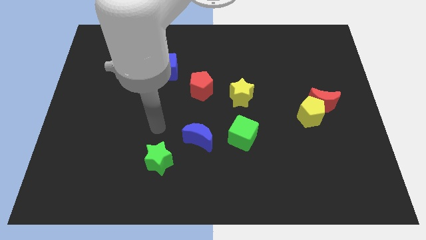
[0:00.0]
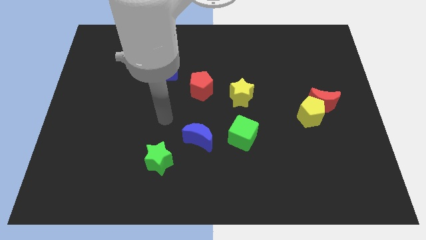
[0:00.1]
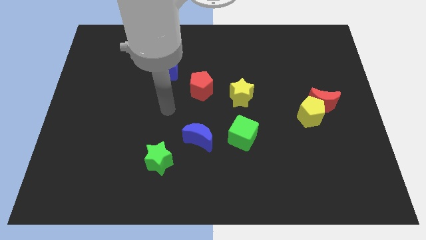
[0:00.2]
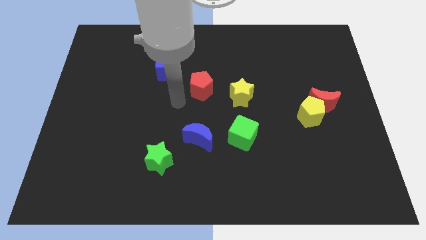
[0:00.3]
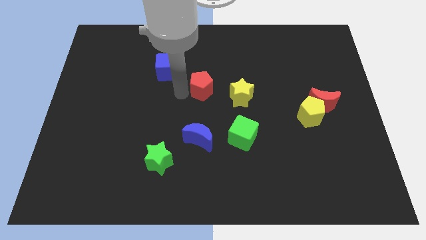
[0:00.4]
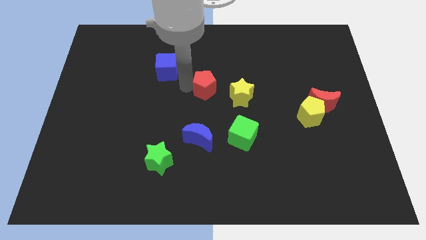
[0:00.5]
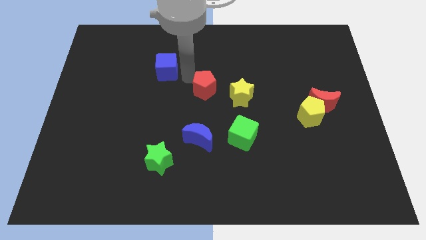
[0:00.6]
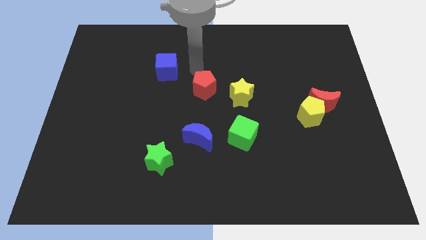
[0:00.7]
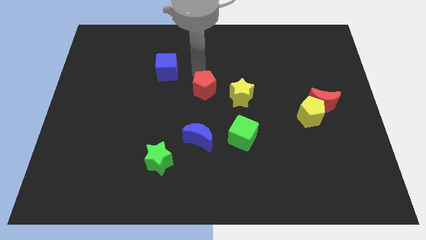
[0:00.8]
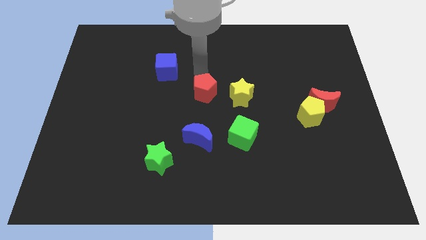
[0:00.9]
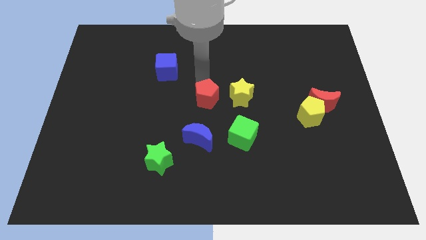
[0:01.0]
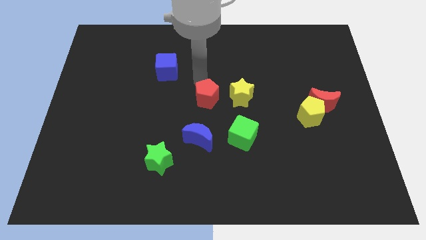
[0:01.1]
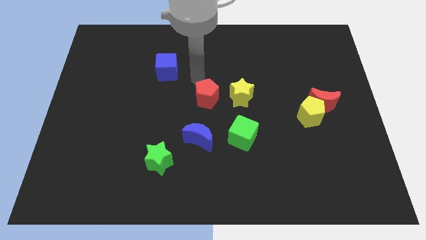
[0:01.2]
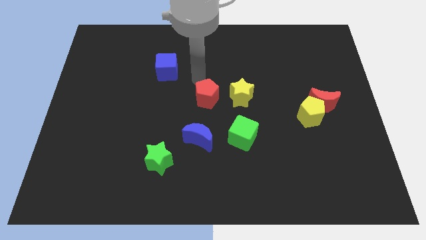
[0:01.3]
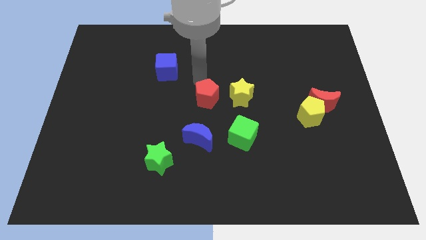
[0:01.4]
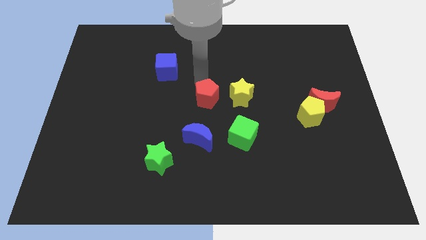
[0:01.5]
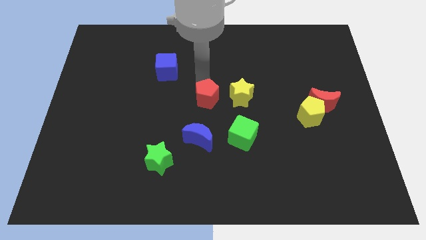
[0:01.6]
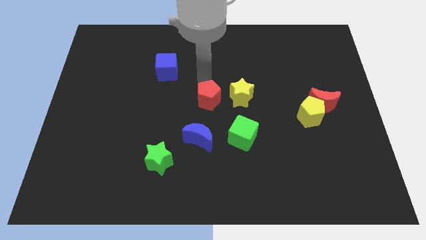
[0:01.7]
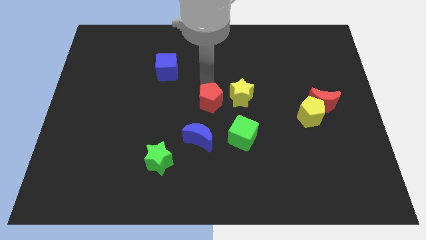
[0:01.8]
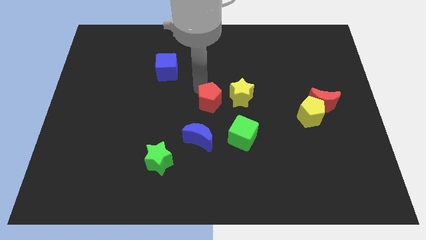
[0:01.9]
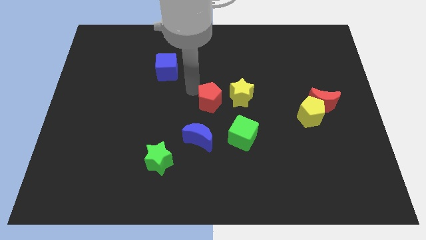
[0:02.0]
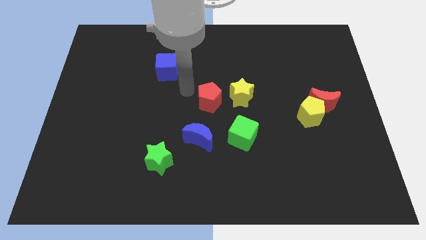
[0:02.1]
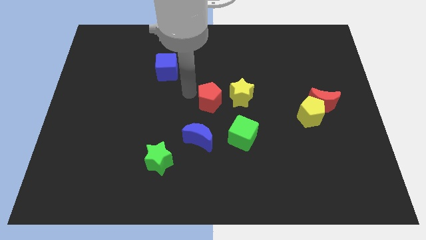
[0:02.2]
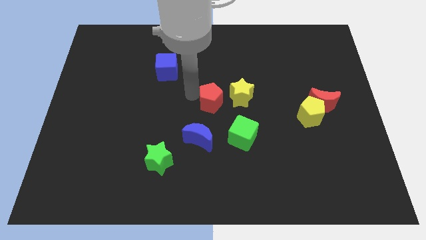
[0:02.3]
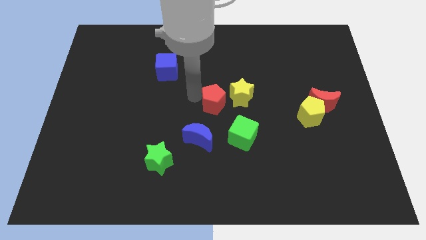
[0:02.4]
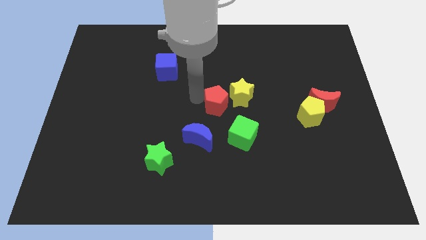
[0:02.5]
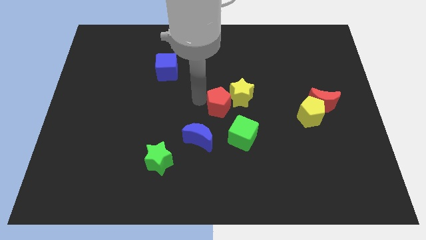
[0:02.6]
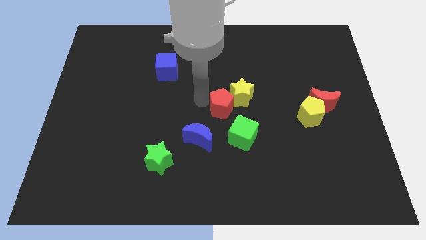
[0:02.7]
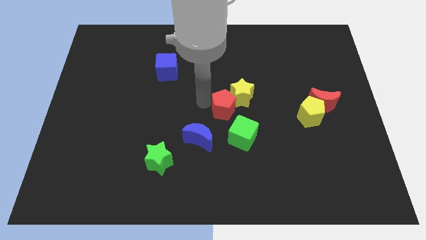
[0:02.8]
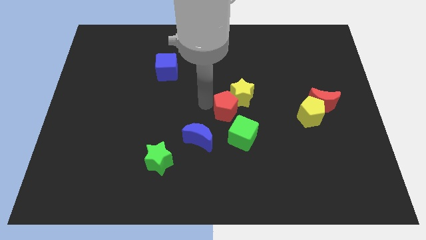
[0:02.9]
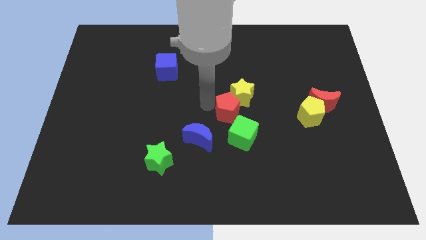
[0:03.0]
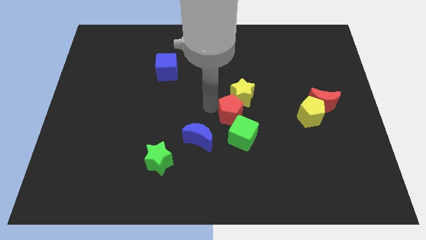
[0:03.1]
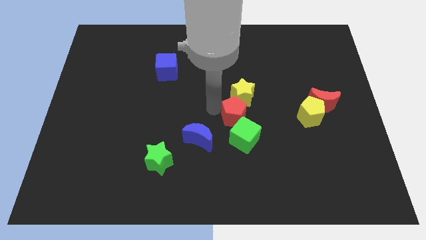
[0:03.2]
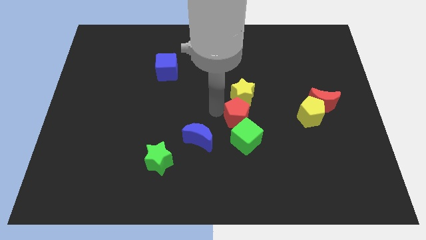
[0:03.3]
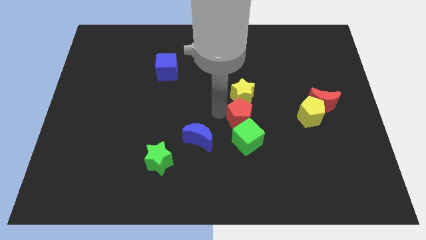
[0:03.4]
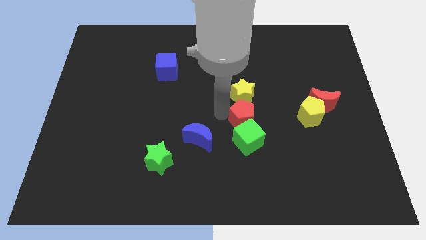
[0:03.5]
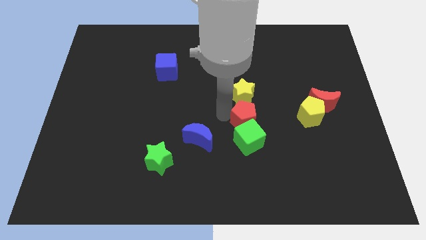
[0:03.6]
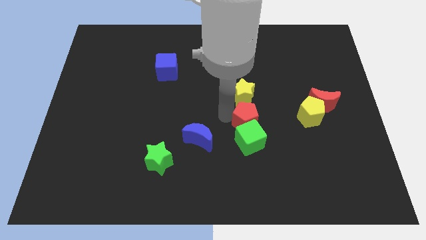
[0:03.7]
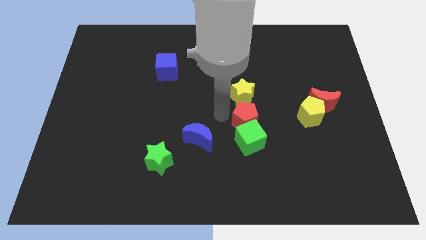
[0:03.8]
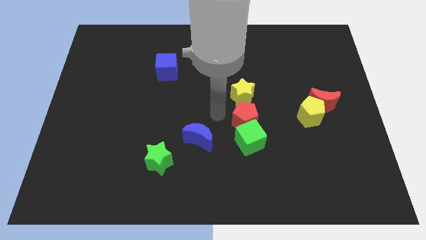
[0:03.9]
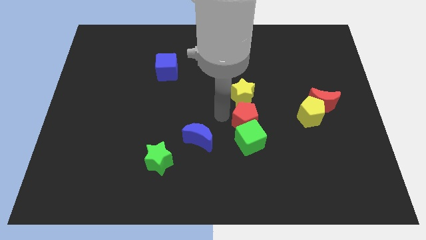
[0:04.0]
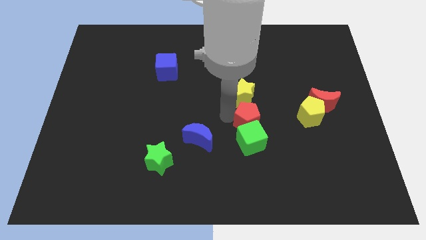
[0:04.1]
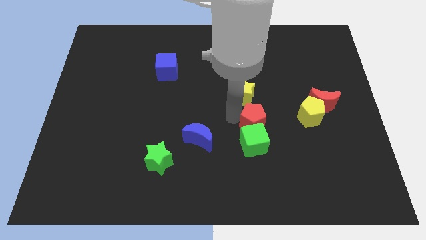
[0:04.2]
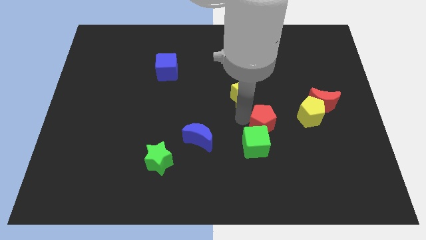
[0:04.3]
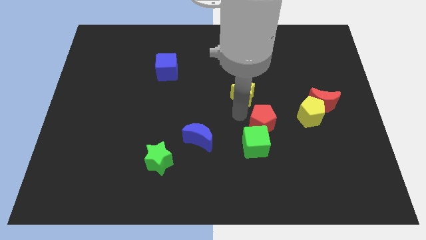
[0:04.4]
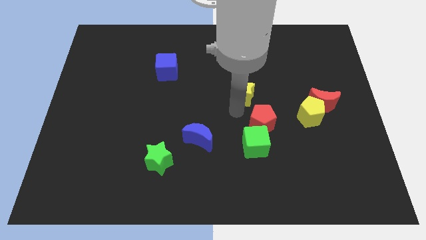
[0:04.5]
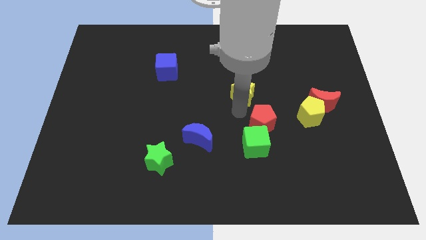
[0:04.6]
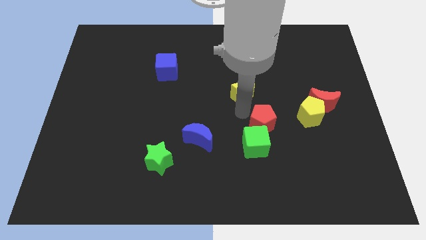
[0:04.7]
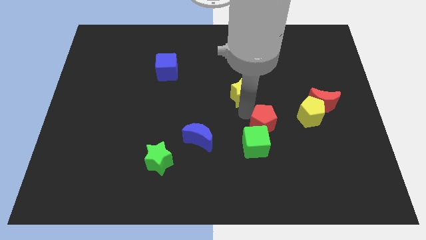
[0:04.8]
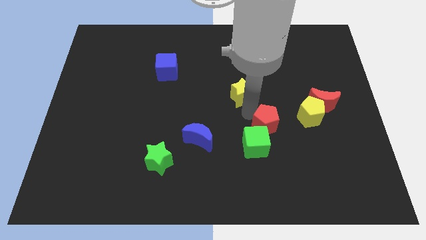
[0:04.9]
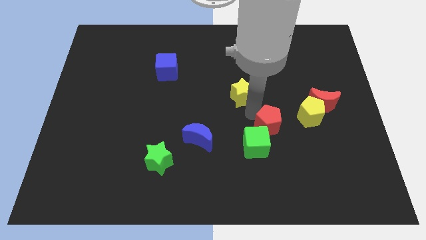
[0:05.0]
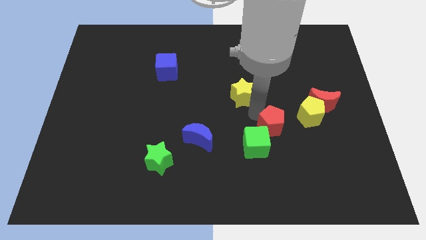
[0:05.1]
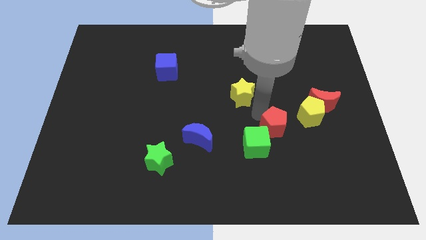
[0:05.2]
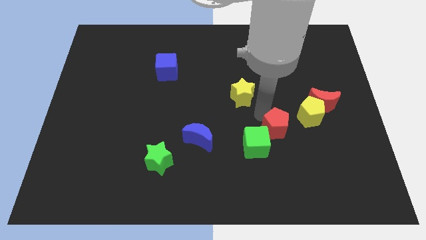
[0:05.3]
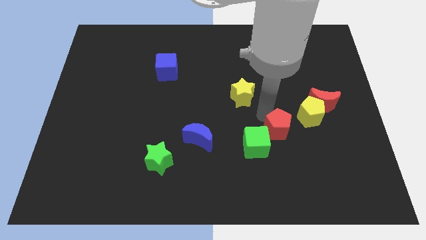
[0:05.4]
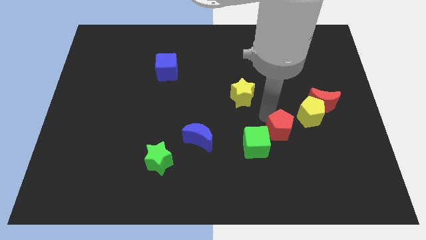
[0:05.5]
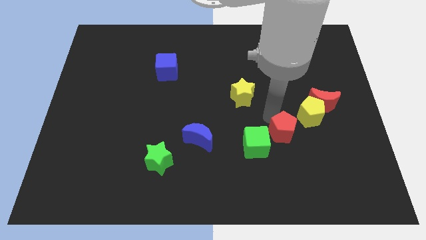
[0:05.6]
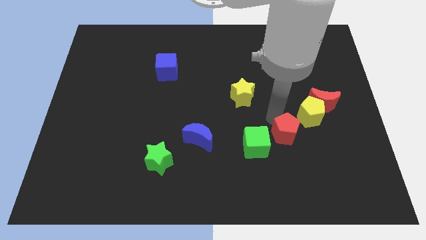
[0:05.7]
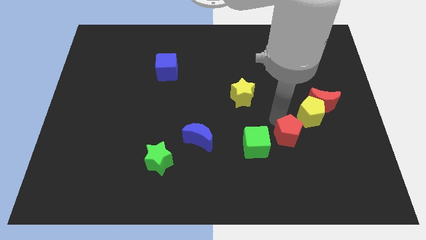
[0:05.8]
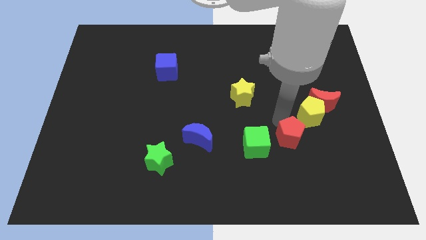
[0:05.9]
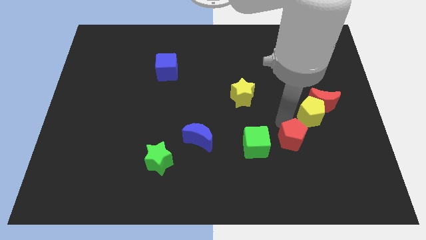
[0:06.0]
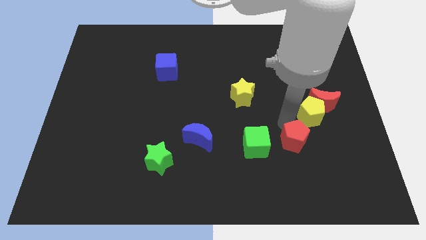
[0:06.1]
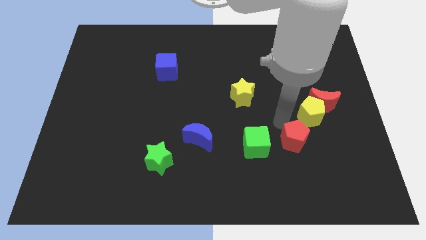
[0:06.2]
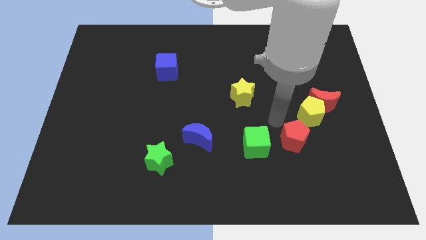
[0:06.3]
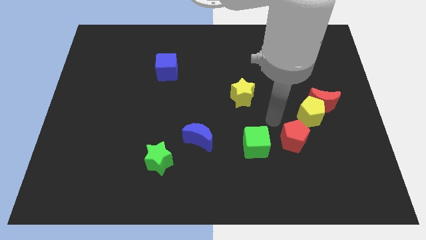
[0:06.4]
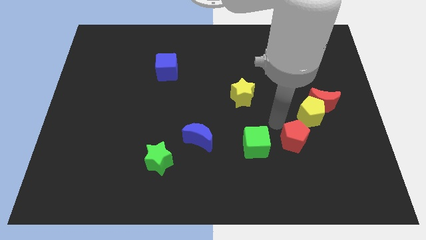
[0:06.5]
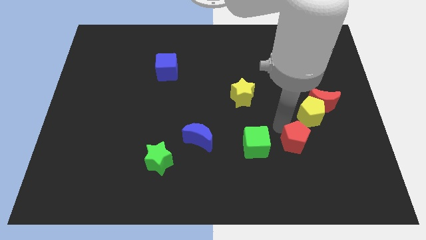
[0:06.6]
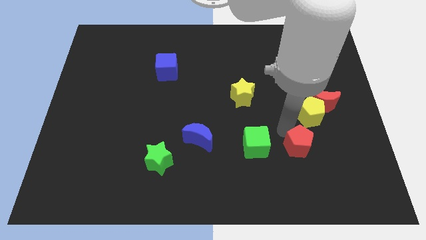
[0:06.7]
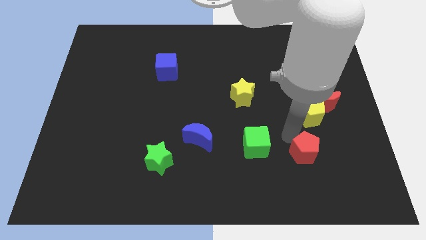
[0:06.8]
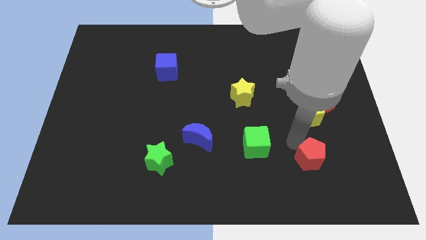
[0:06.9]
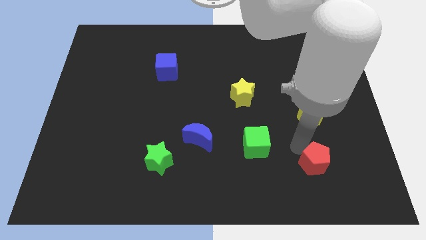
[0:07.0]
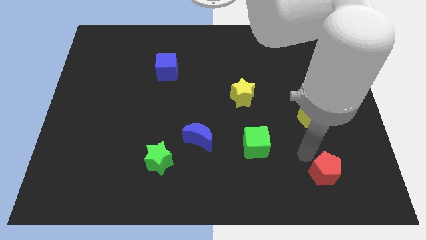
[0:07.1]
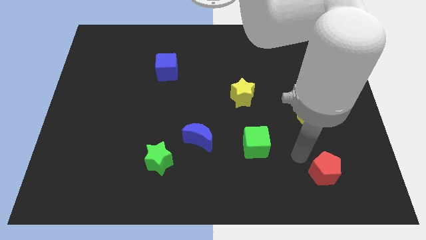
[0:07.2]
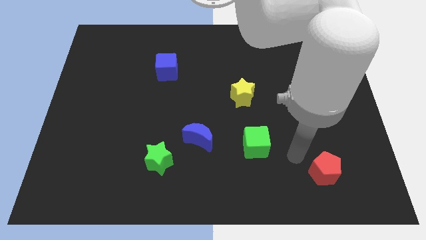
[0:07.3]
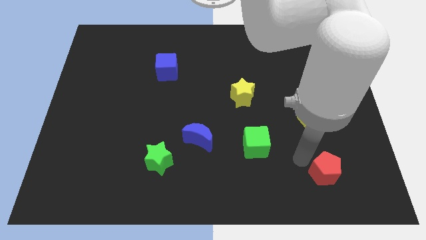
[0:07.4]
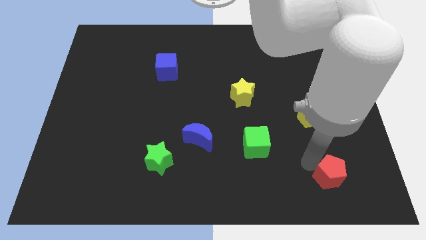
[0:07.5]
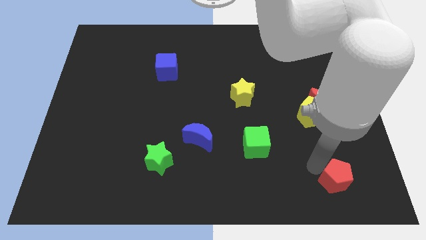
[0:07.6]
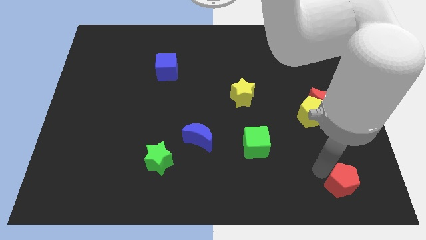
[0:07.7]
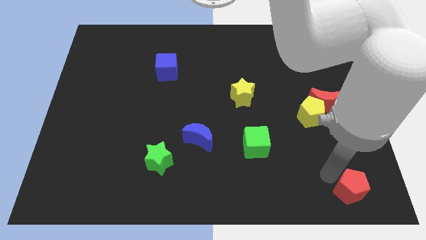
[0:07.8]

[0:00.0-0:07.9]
push the red pentagon to the bottom right

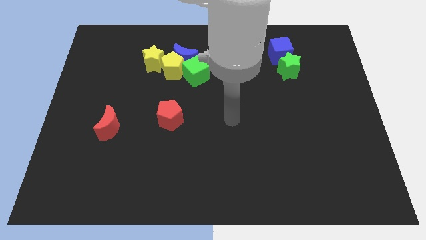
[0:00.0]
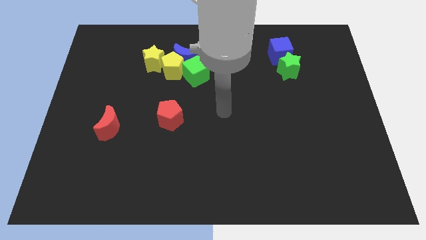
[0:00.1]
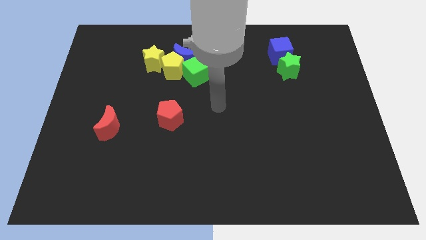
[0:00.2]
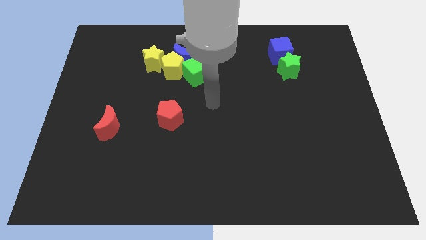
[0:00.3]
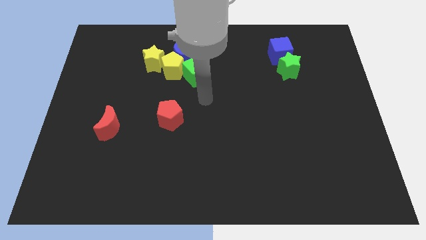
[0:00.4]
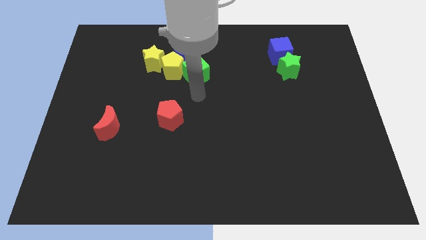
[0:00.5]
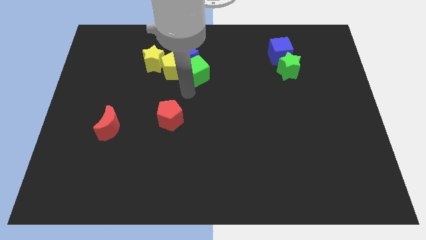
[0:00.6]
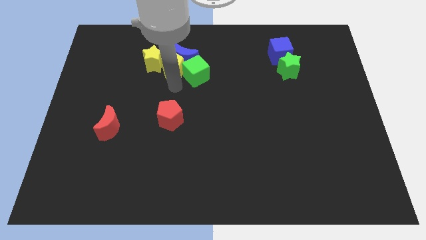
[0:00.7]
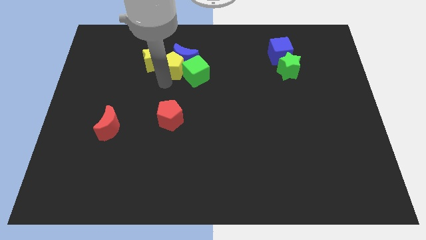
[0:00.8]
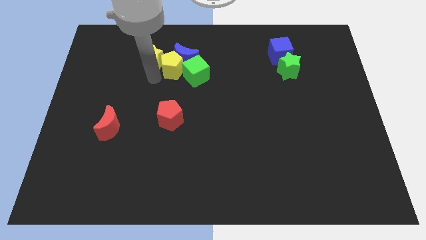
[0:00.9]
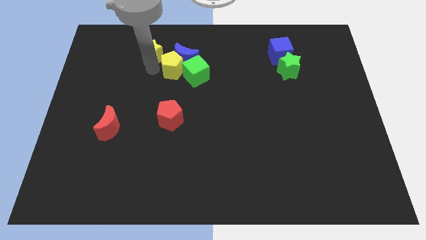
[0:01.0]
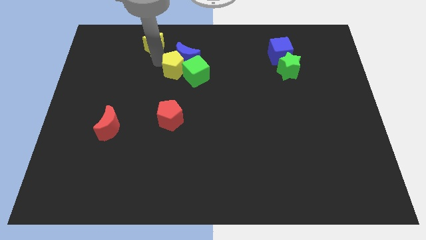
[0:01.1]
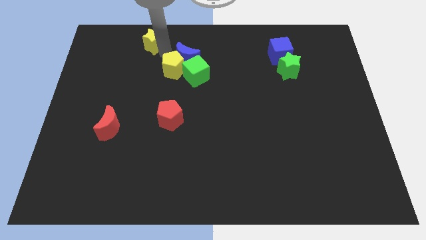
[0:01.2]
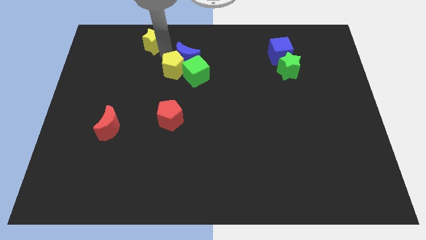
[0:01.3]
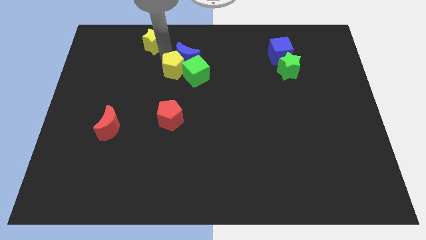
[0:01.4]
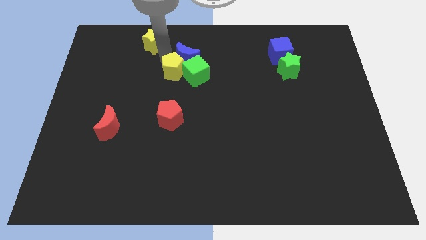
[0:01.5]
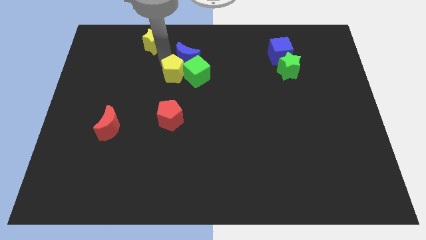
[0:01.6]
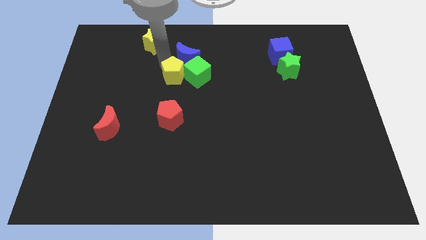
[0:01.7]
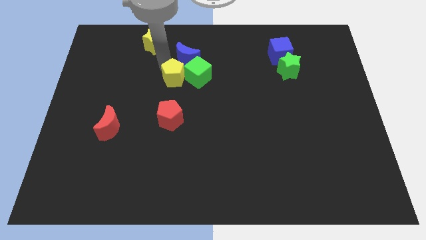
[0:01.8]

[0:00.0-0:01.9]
move the yellow pentagon to the center
